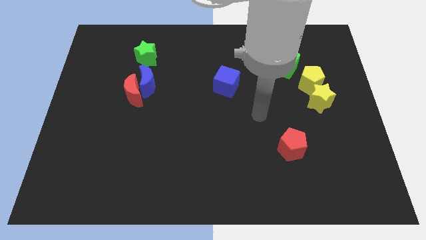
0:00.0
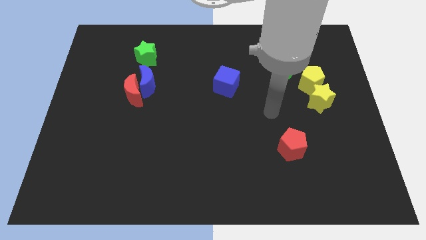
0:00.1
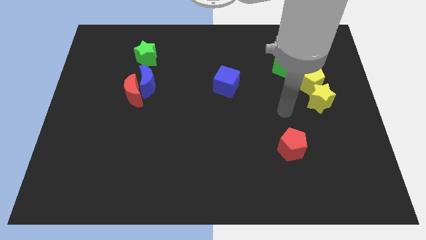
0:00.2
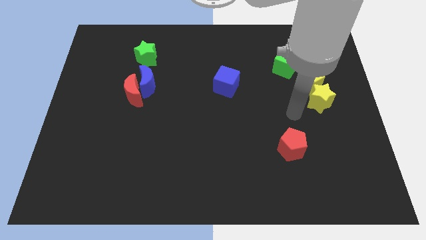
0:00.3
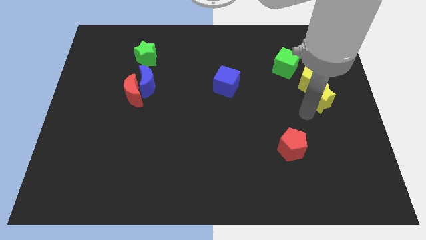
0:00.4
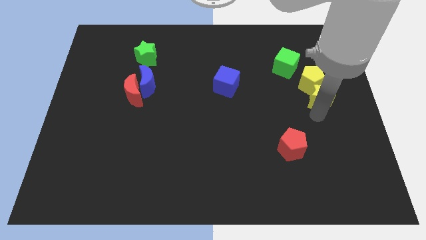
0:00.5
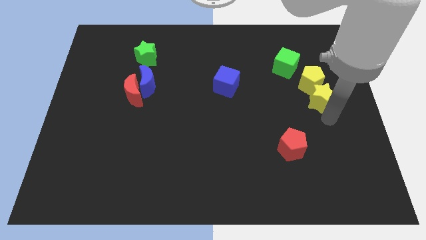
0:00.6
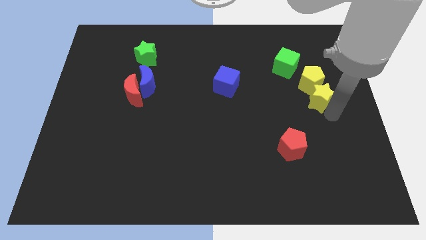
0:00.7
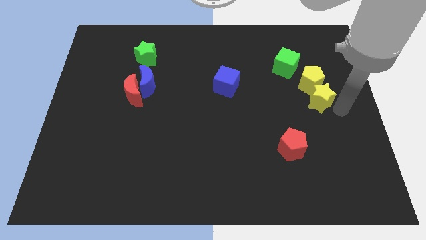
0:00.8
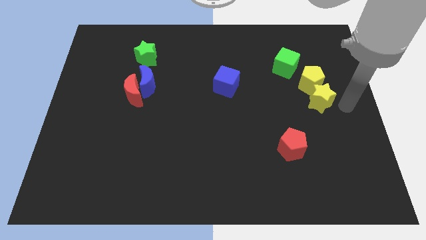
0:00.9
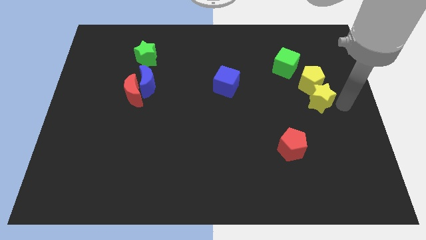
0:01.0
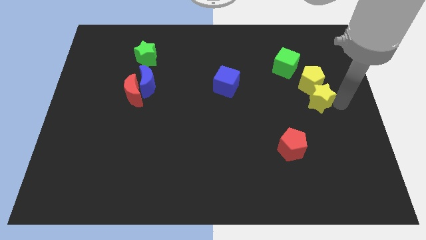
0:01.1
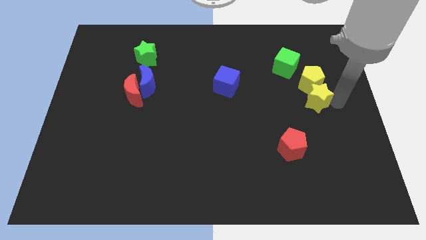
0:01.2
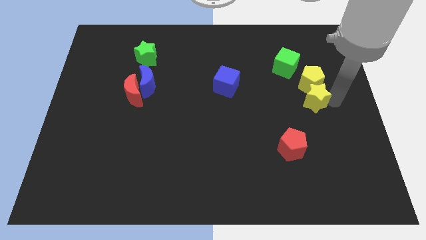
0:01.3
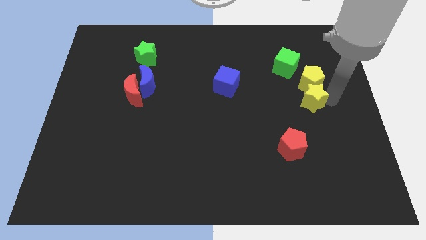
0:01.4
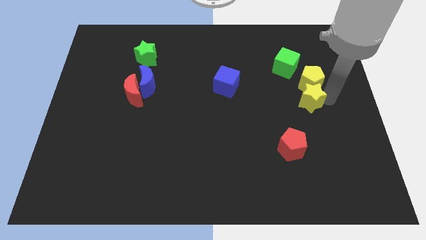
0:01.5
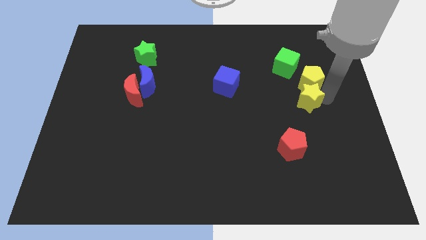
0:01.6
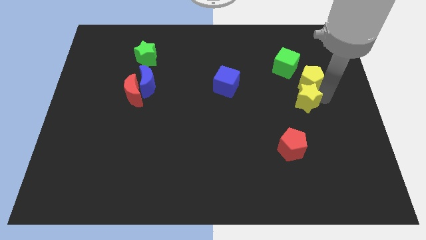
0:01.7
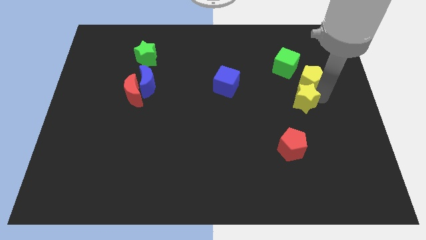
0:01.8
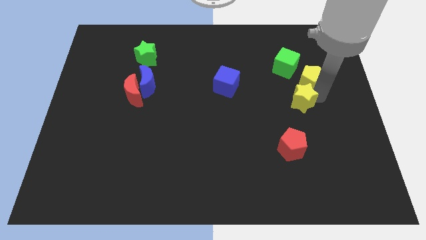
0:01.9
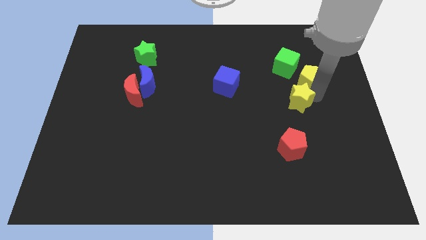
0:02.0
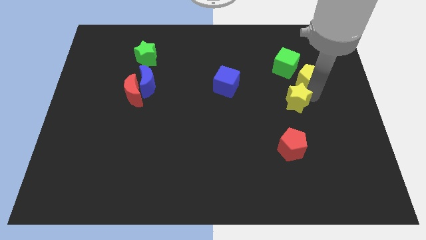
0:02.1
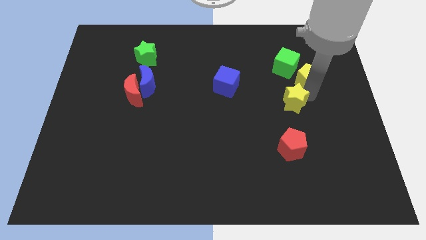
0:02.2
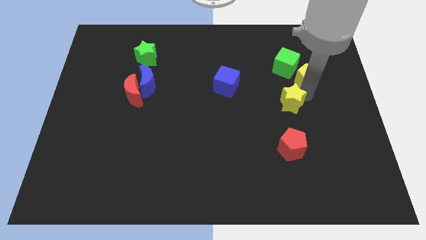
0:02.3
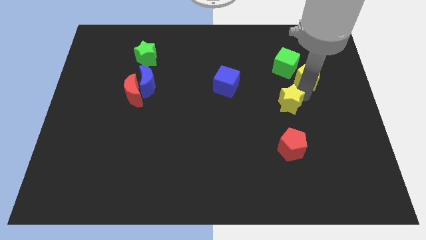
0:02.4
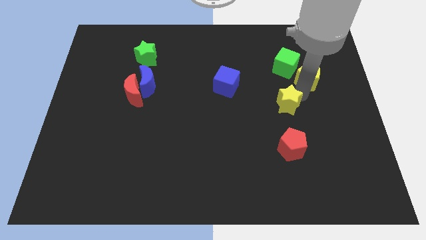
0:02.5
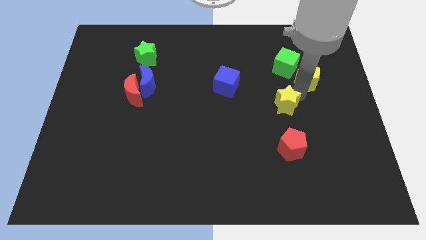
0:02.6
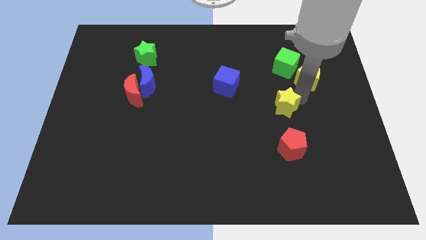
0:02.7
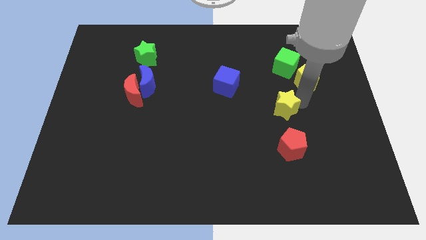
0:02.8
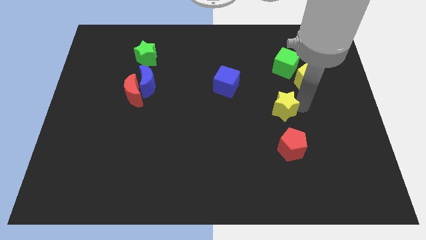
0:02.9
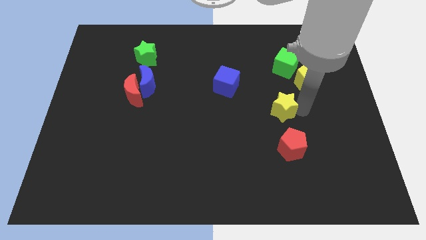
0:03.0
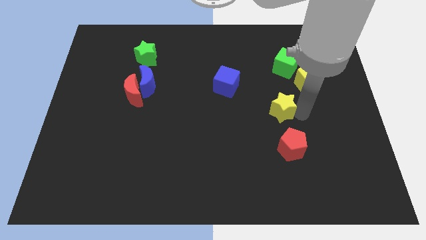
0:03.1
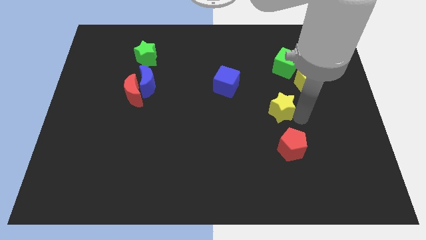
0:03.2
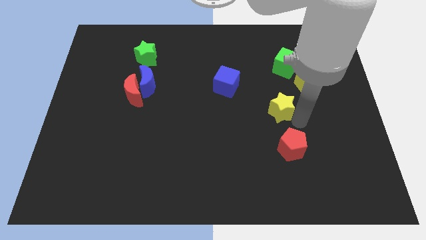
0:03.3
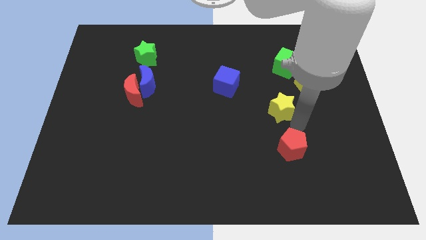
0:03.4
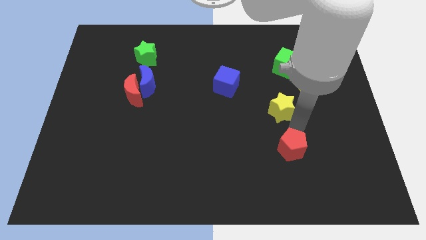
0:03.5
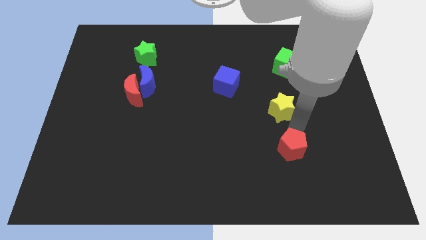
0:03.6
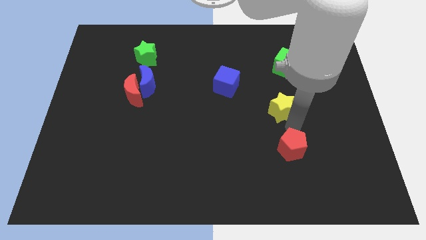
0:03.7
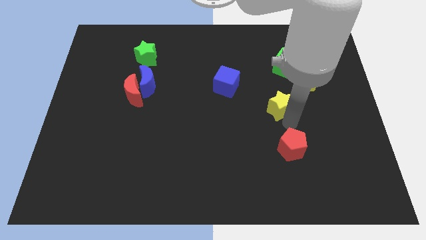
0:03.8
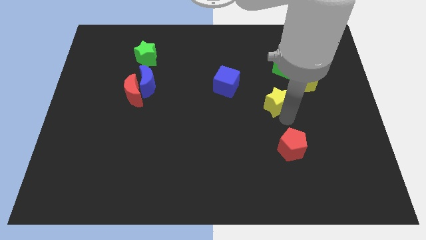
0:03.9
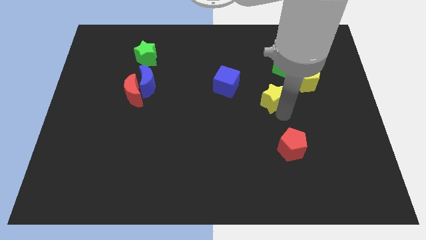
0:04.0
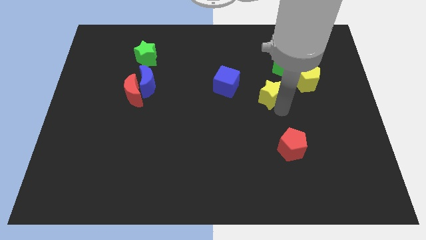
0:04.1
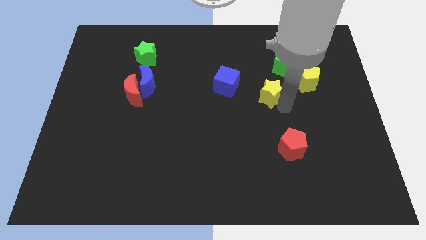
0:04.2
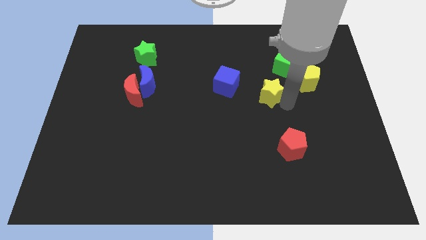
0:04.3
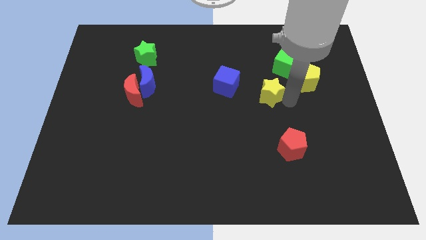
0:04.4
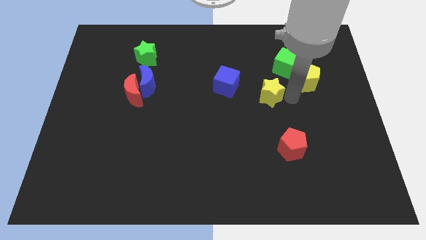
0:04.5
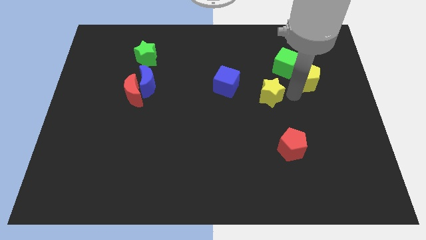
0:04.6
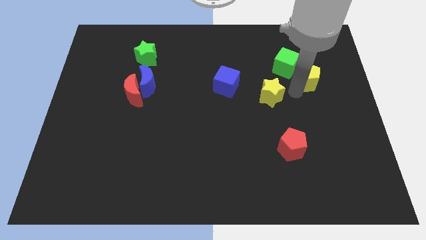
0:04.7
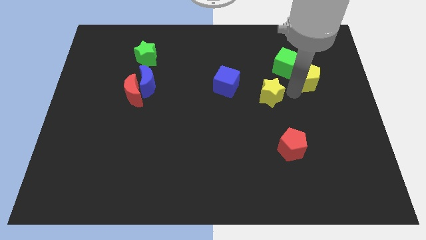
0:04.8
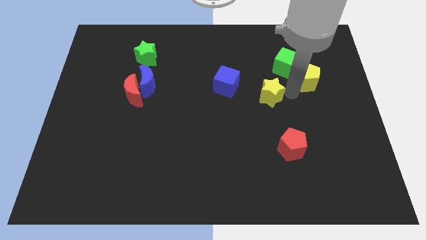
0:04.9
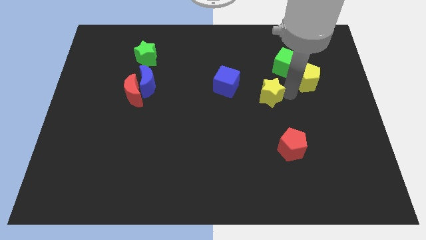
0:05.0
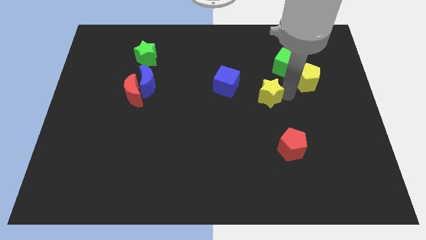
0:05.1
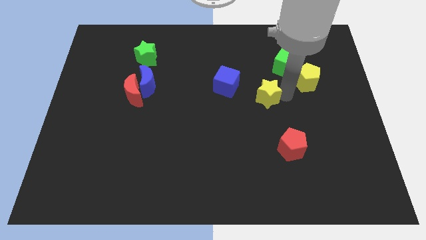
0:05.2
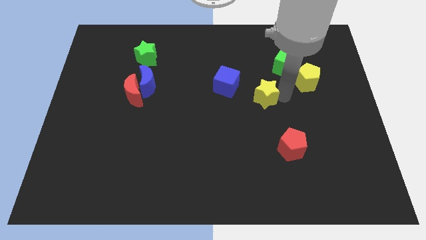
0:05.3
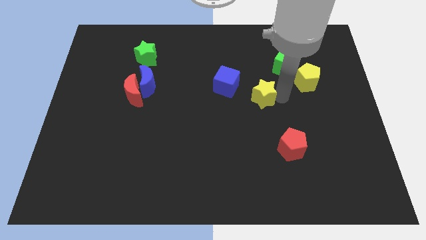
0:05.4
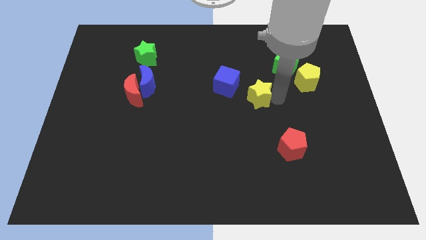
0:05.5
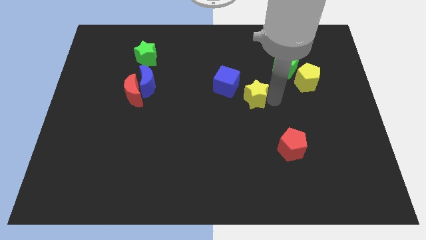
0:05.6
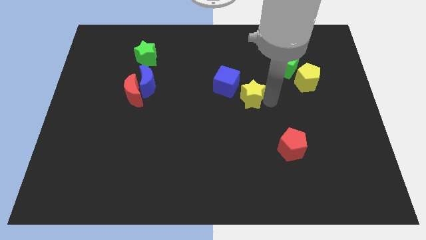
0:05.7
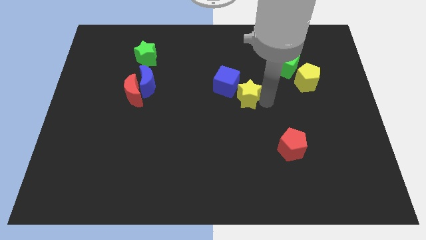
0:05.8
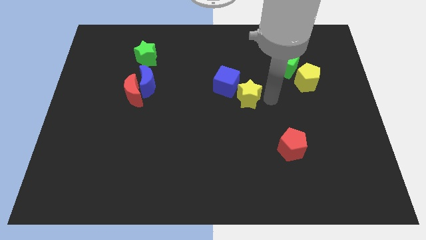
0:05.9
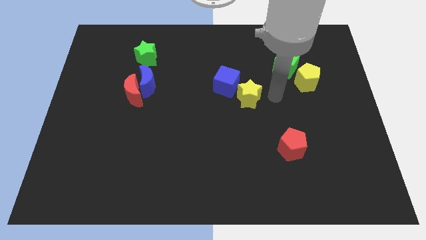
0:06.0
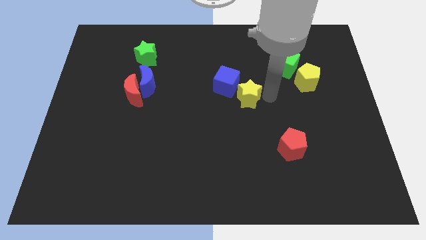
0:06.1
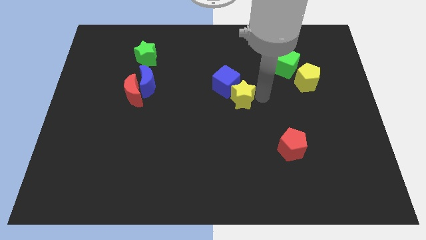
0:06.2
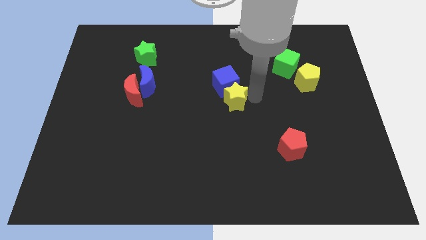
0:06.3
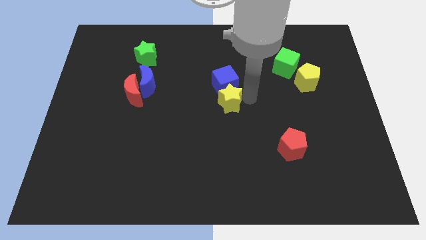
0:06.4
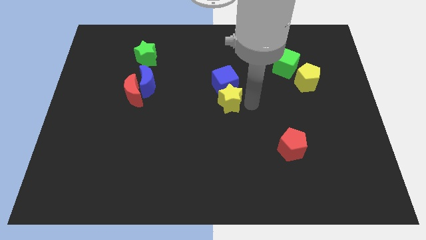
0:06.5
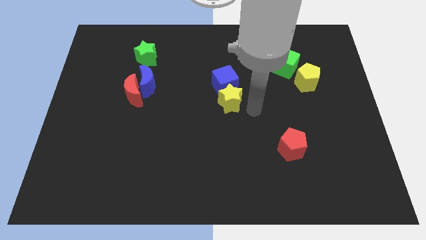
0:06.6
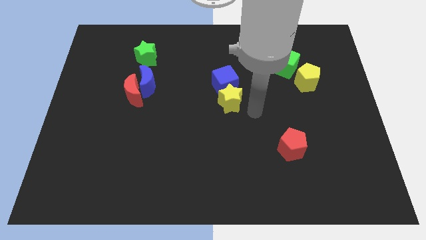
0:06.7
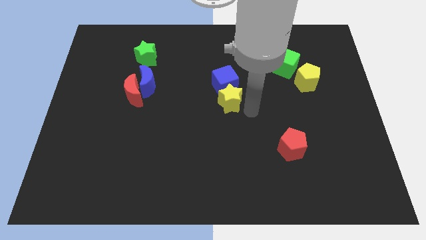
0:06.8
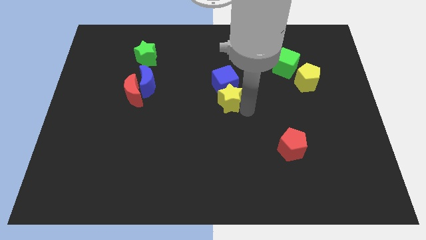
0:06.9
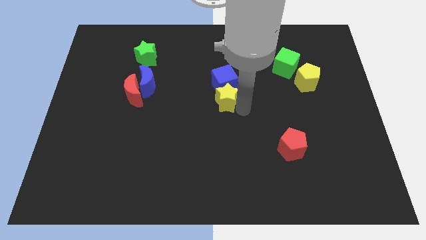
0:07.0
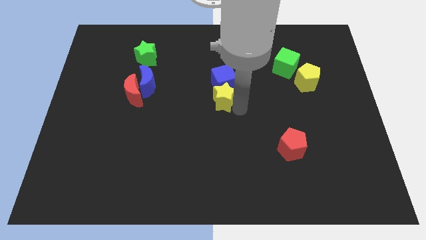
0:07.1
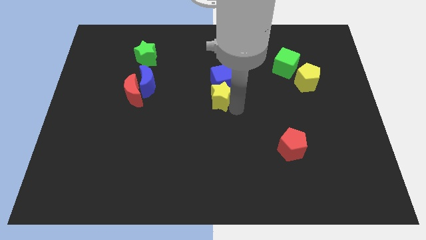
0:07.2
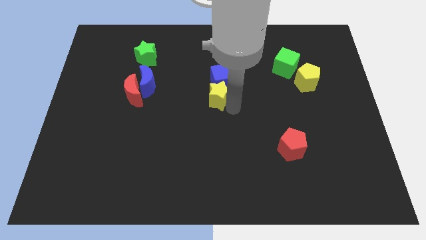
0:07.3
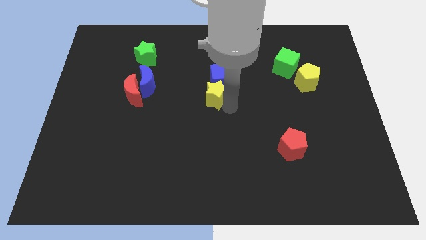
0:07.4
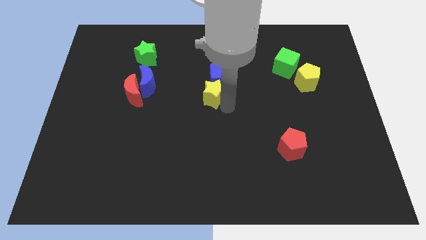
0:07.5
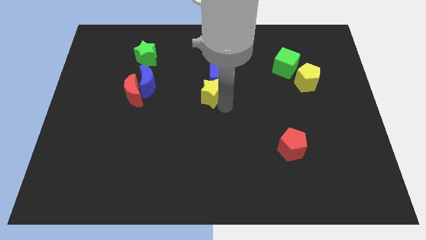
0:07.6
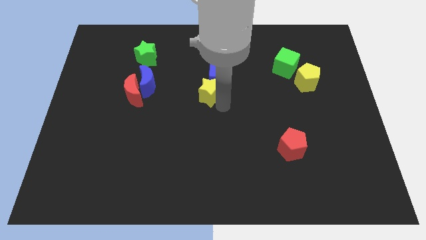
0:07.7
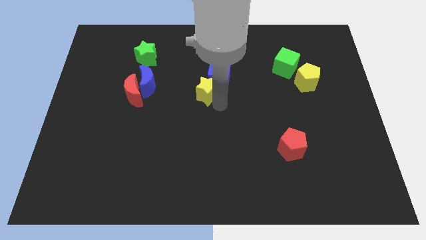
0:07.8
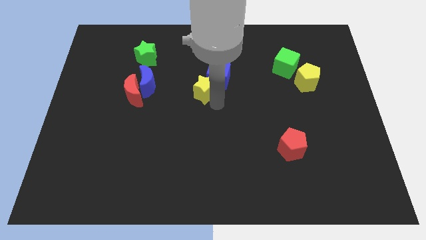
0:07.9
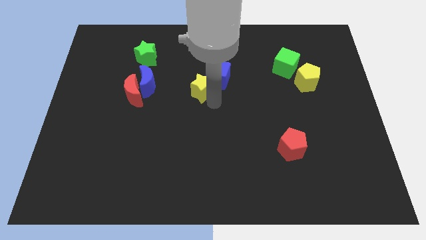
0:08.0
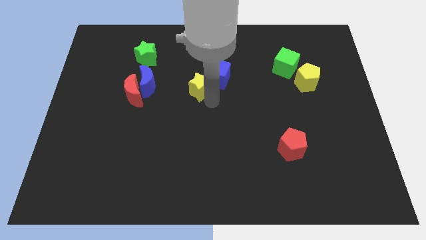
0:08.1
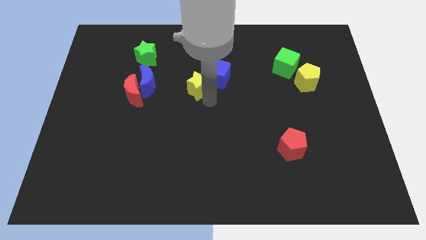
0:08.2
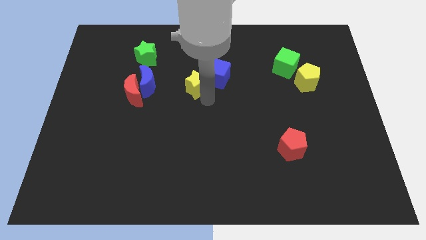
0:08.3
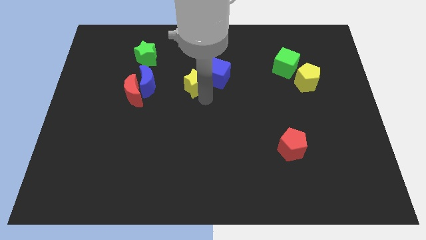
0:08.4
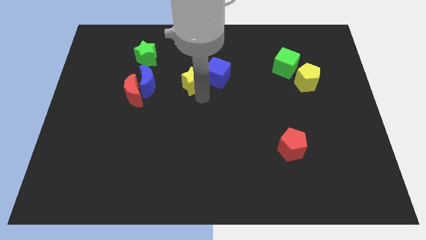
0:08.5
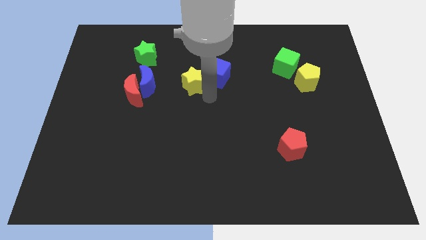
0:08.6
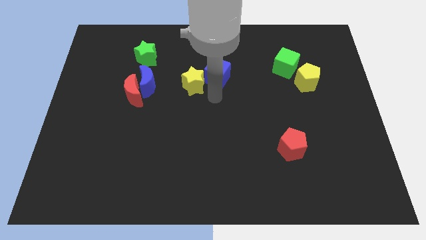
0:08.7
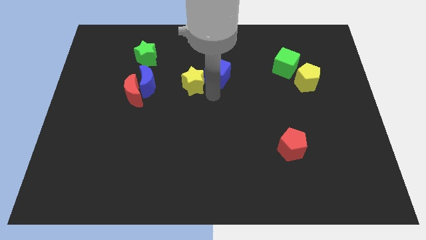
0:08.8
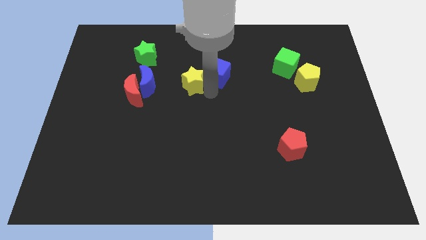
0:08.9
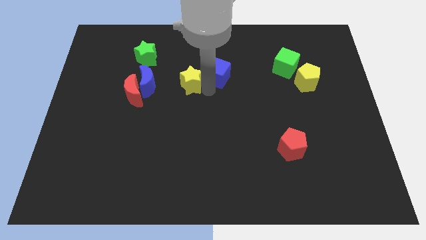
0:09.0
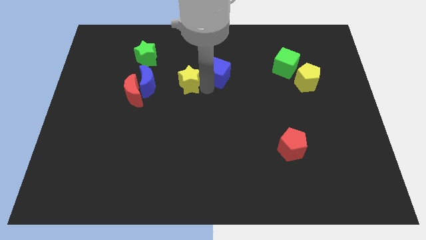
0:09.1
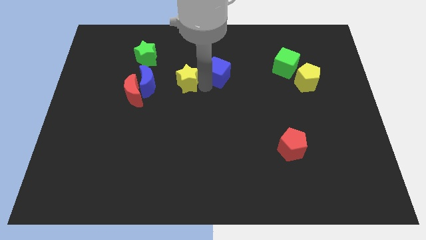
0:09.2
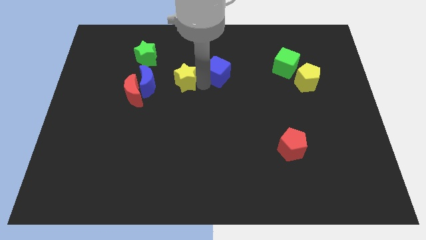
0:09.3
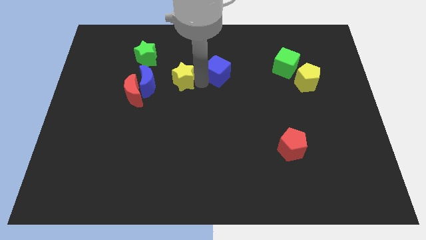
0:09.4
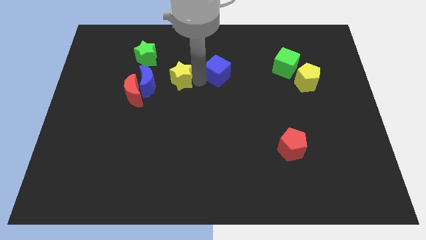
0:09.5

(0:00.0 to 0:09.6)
push the yellow star to the top right side of the blue moon
